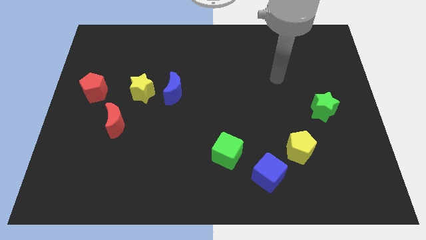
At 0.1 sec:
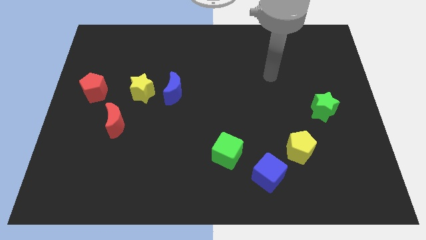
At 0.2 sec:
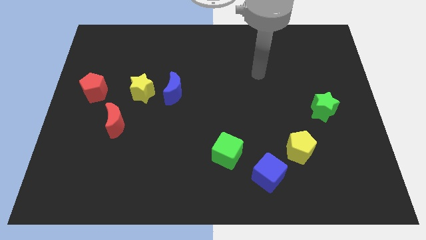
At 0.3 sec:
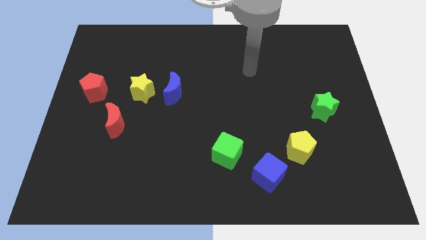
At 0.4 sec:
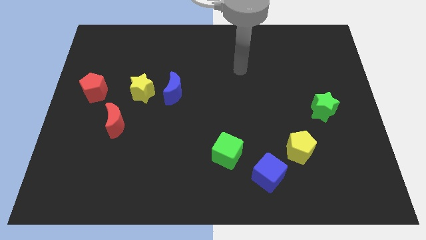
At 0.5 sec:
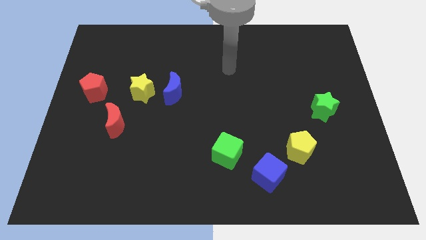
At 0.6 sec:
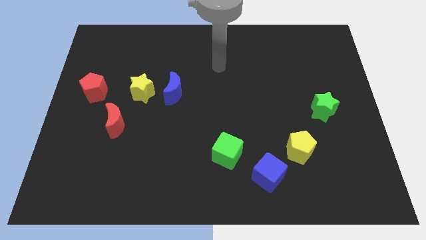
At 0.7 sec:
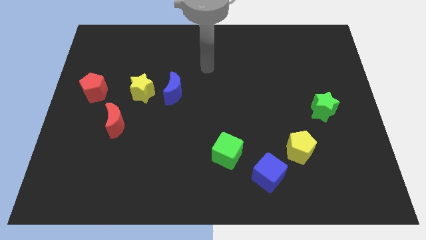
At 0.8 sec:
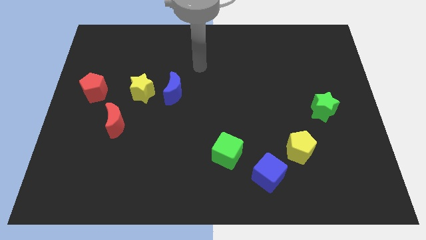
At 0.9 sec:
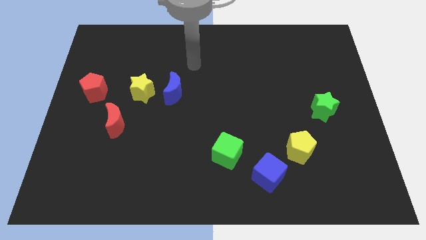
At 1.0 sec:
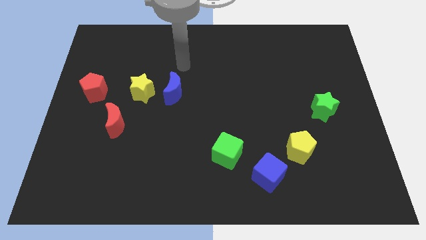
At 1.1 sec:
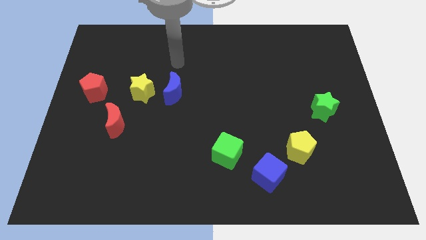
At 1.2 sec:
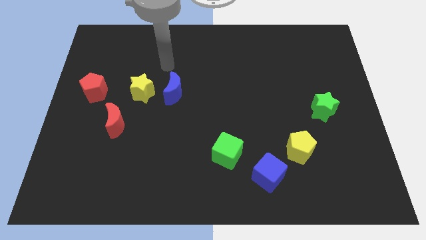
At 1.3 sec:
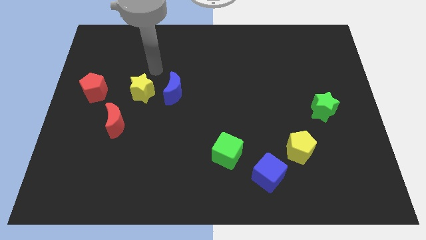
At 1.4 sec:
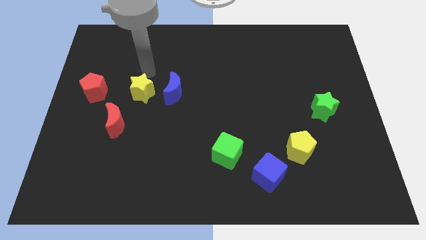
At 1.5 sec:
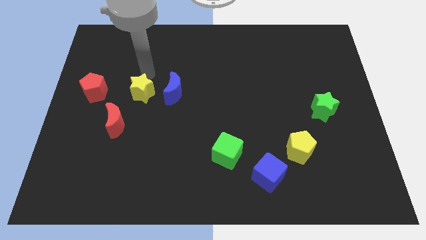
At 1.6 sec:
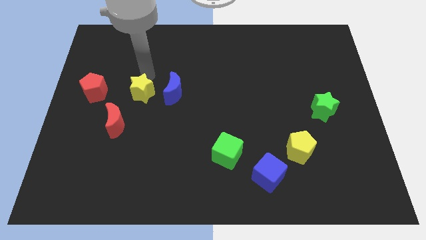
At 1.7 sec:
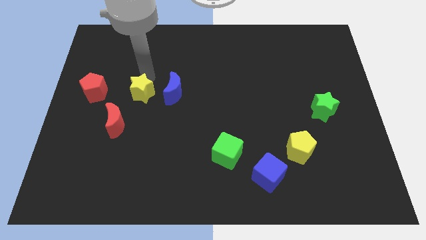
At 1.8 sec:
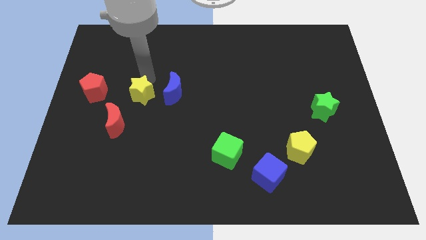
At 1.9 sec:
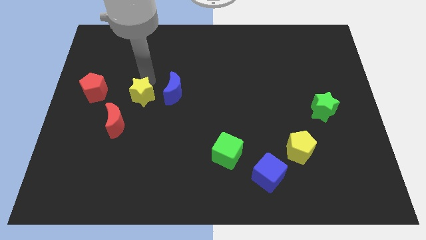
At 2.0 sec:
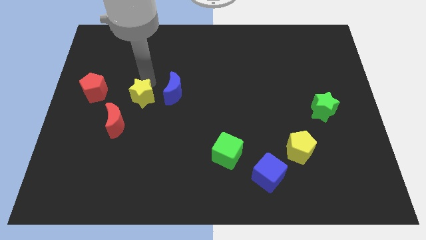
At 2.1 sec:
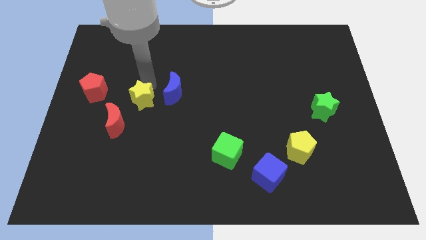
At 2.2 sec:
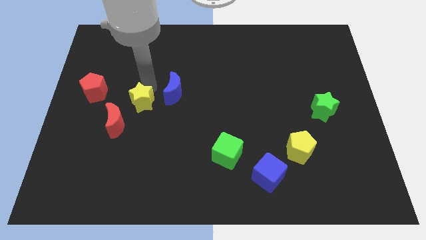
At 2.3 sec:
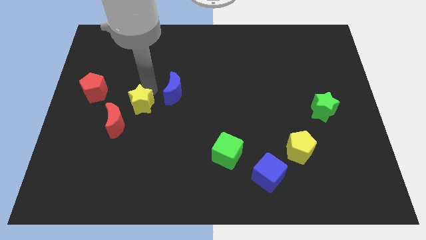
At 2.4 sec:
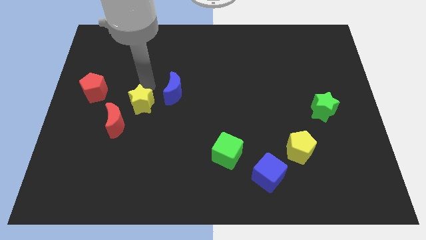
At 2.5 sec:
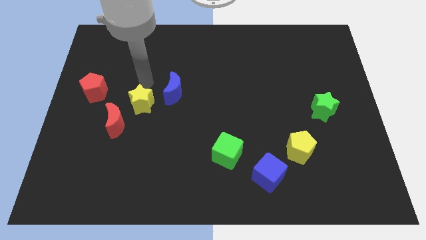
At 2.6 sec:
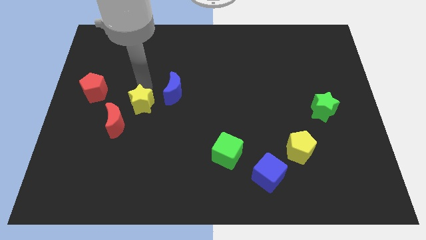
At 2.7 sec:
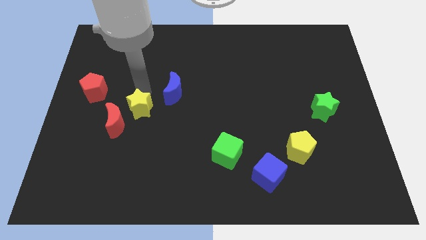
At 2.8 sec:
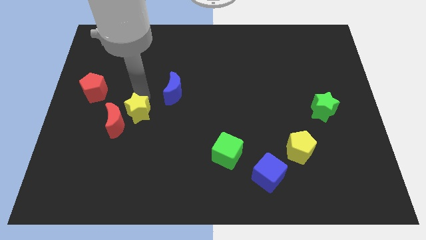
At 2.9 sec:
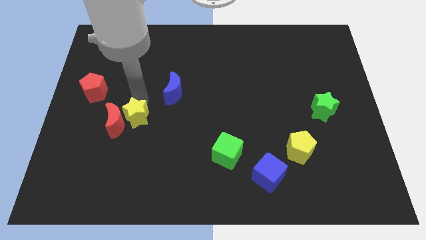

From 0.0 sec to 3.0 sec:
slightly move the yellow star down

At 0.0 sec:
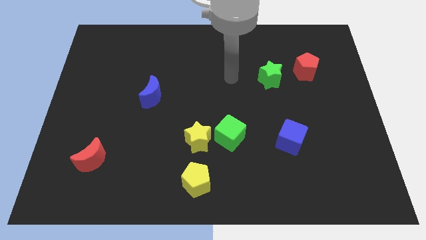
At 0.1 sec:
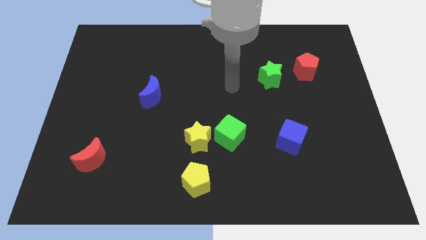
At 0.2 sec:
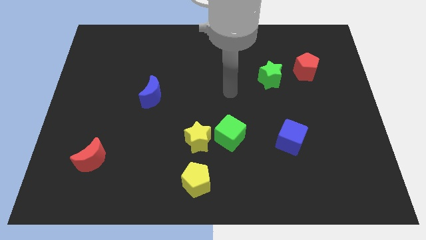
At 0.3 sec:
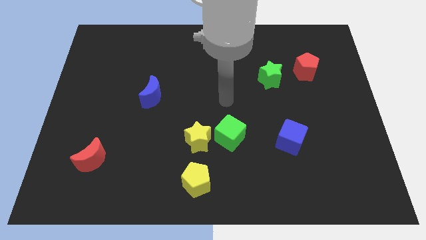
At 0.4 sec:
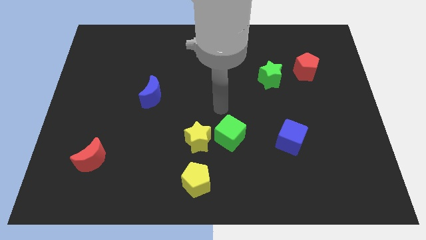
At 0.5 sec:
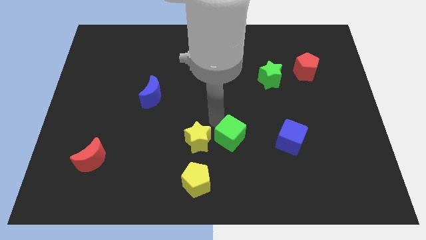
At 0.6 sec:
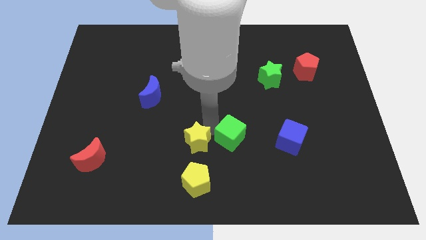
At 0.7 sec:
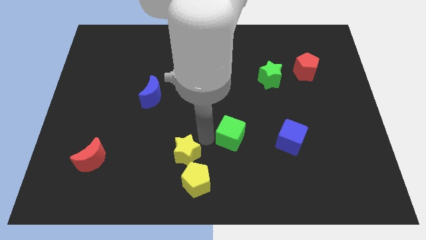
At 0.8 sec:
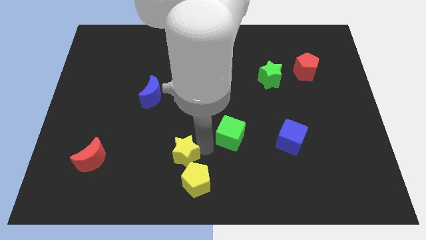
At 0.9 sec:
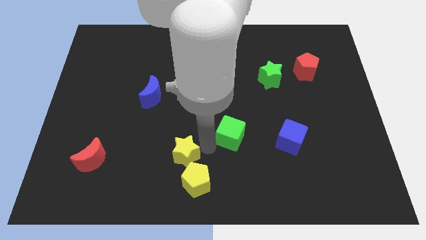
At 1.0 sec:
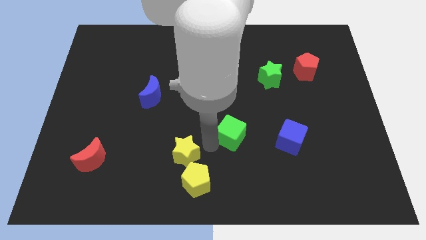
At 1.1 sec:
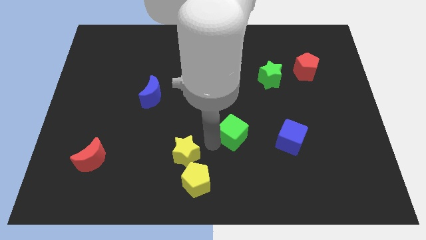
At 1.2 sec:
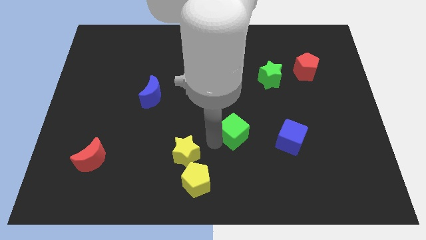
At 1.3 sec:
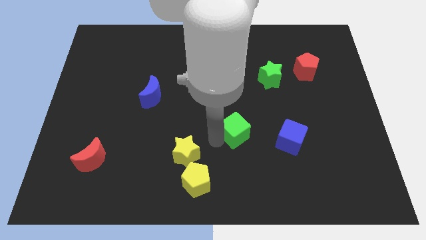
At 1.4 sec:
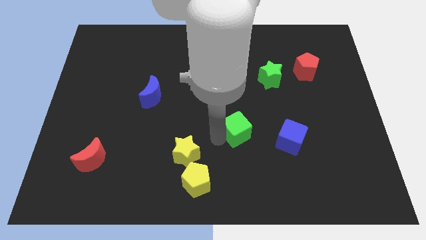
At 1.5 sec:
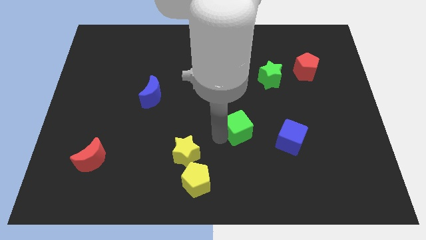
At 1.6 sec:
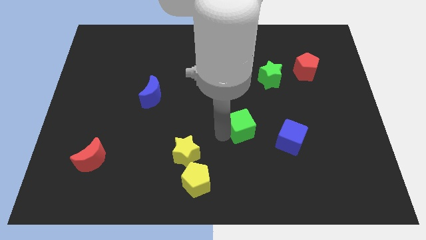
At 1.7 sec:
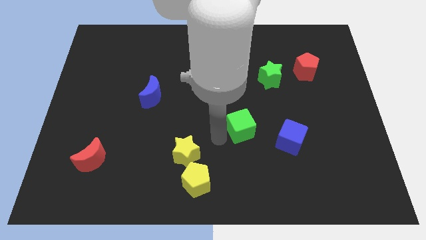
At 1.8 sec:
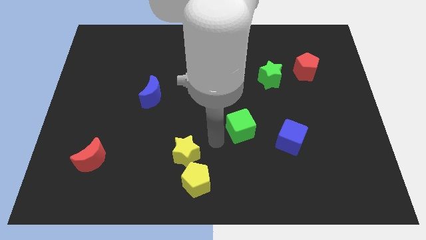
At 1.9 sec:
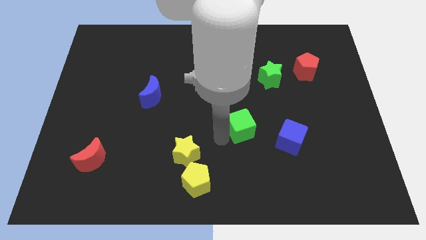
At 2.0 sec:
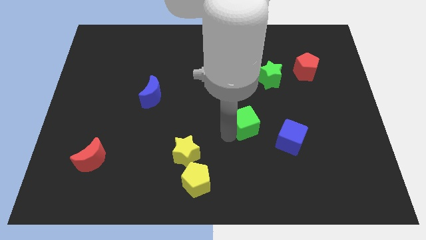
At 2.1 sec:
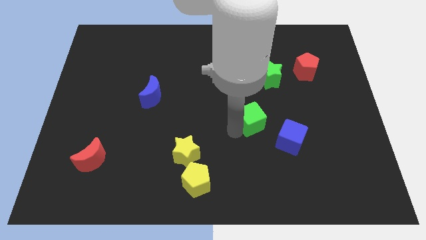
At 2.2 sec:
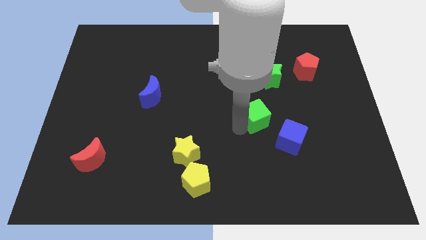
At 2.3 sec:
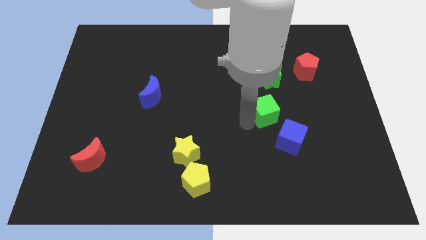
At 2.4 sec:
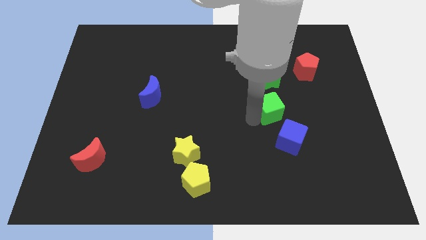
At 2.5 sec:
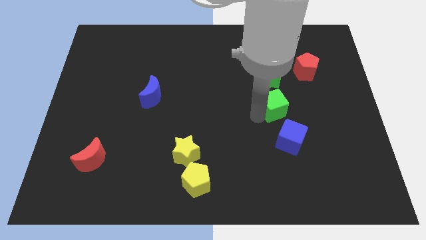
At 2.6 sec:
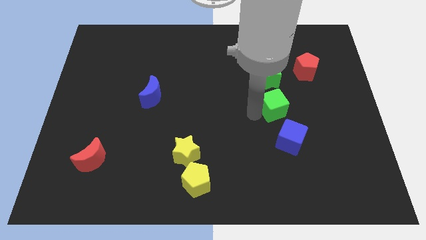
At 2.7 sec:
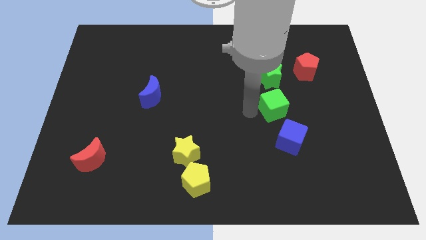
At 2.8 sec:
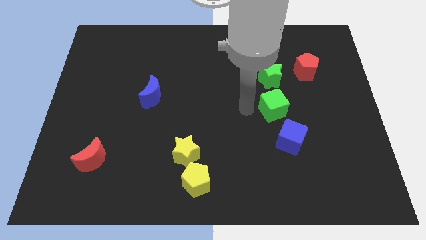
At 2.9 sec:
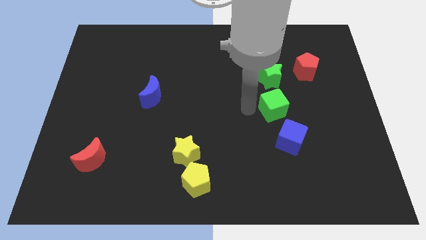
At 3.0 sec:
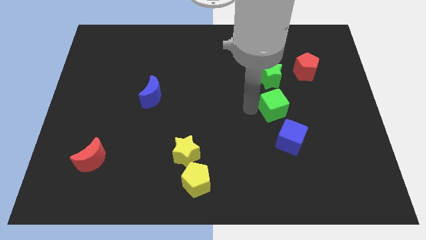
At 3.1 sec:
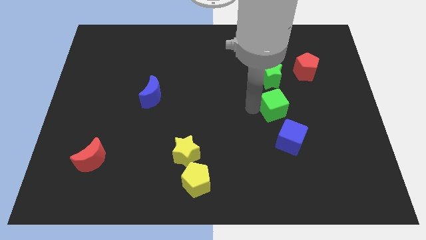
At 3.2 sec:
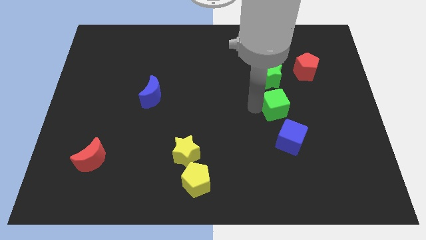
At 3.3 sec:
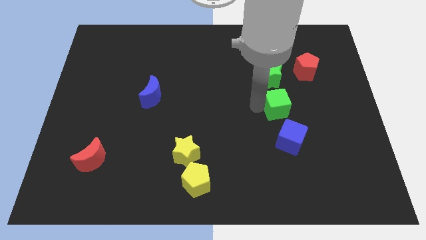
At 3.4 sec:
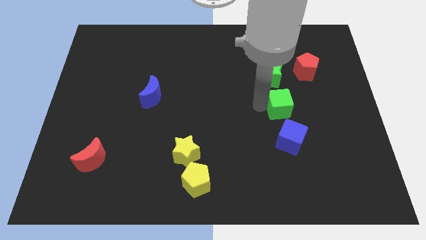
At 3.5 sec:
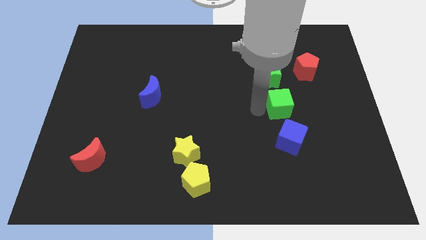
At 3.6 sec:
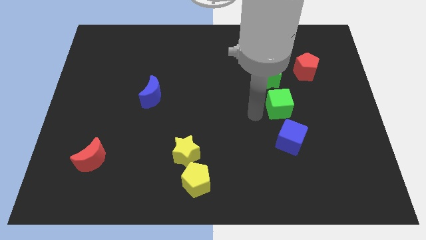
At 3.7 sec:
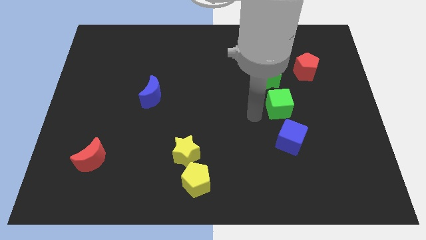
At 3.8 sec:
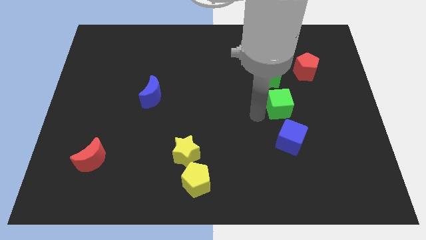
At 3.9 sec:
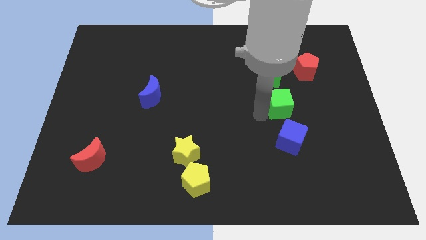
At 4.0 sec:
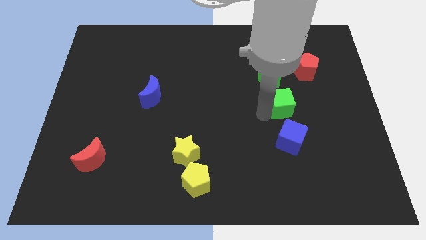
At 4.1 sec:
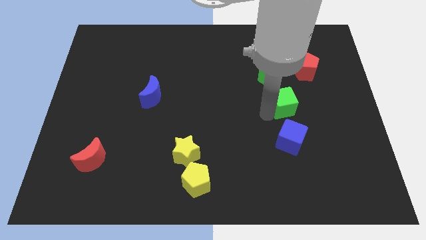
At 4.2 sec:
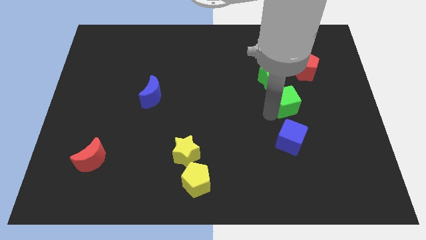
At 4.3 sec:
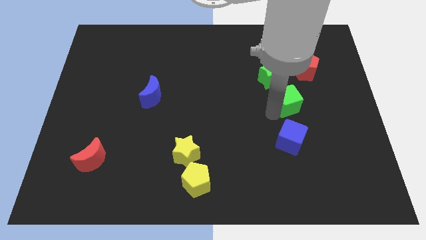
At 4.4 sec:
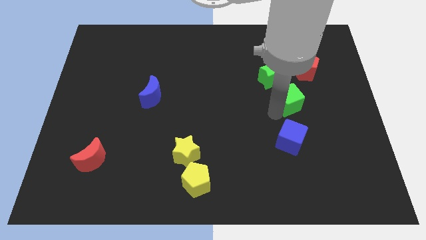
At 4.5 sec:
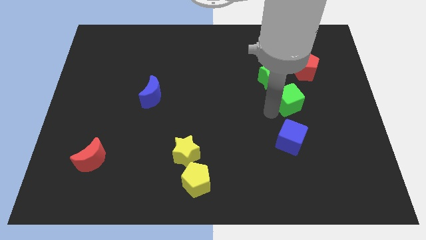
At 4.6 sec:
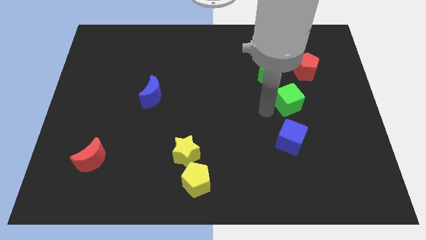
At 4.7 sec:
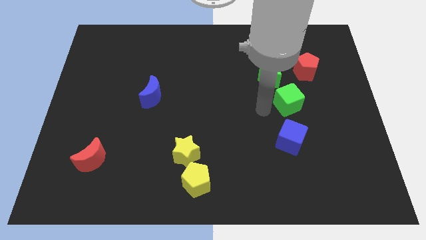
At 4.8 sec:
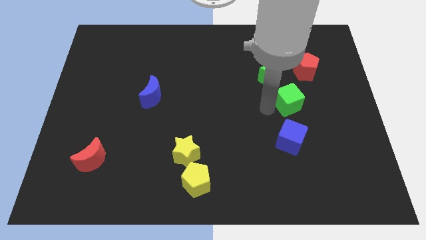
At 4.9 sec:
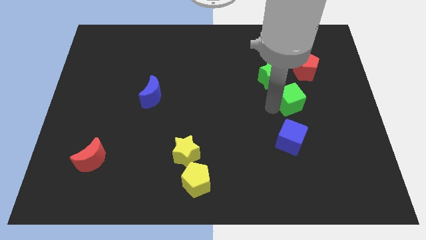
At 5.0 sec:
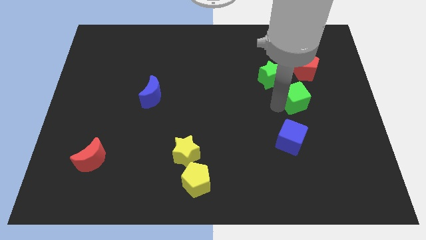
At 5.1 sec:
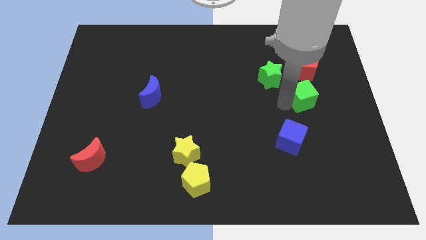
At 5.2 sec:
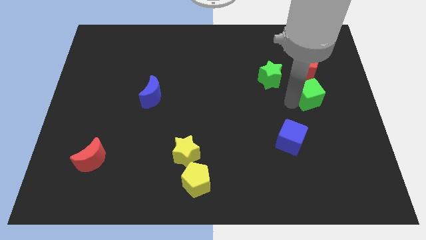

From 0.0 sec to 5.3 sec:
move the green cube diagonally upwards and to the right
